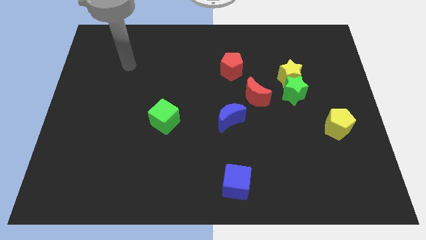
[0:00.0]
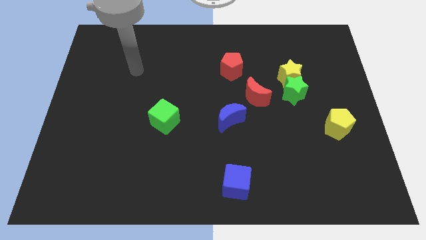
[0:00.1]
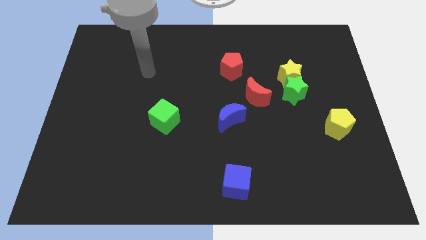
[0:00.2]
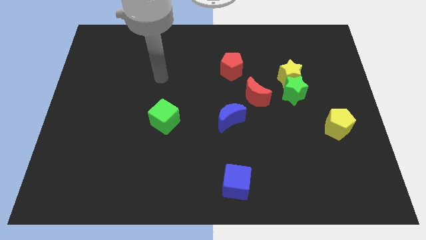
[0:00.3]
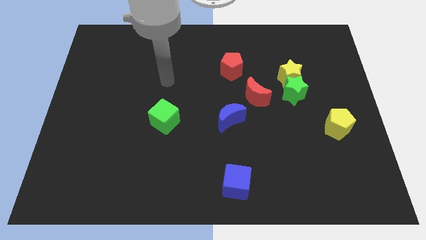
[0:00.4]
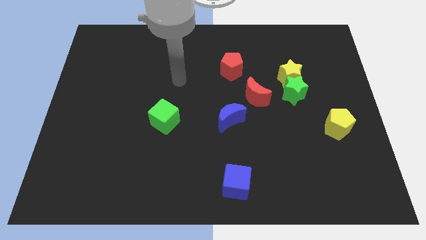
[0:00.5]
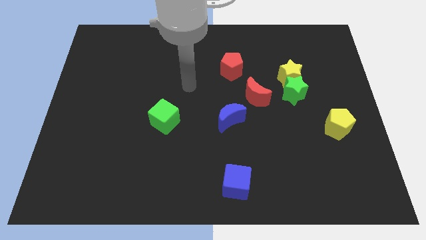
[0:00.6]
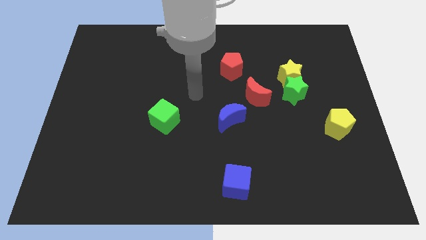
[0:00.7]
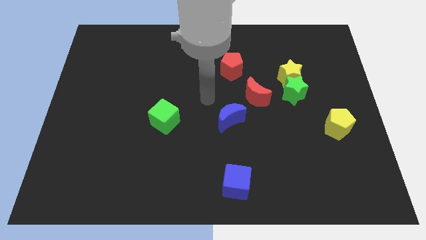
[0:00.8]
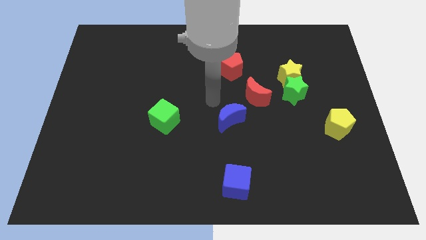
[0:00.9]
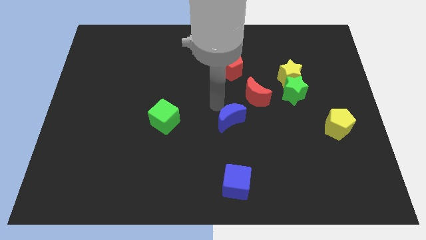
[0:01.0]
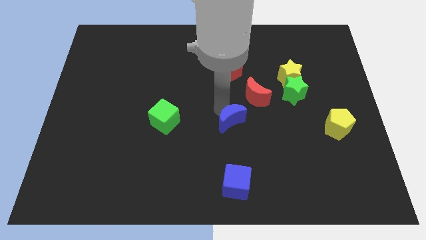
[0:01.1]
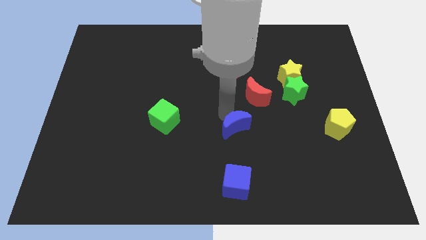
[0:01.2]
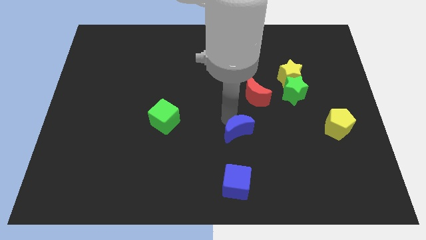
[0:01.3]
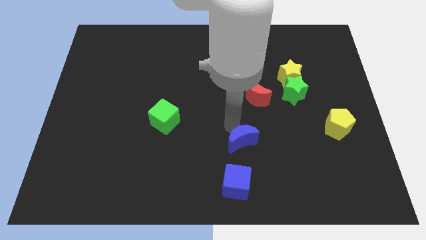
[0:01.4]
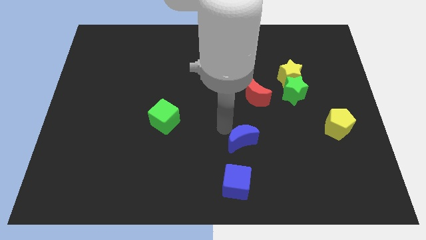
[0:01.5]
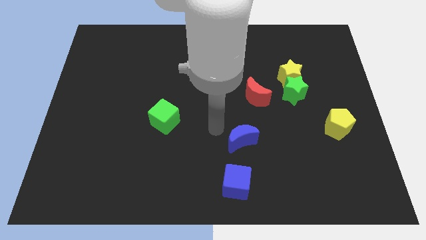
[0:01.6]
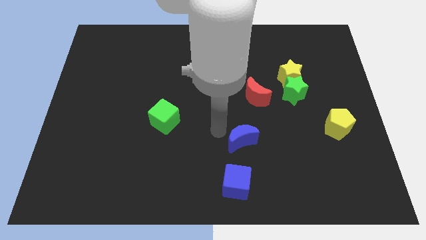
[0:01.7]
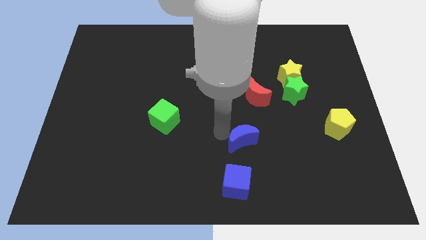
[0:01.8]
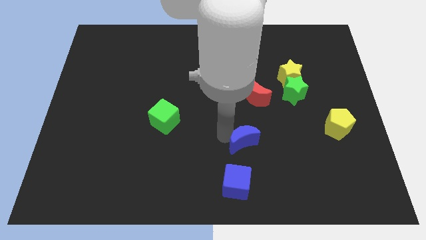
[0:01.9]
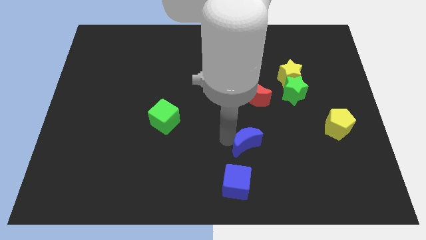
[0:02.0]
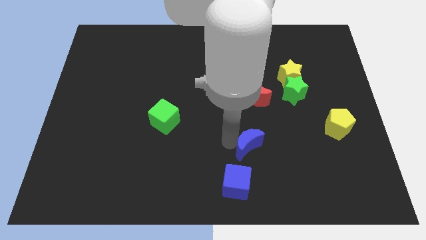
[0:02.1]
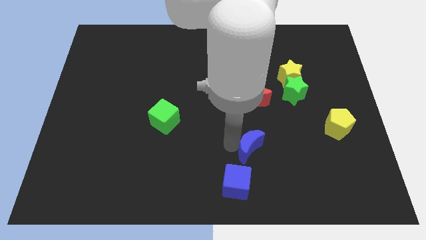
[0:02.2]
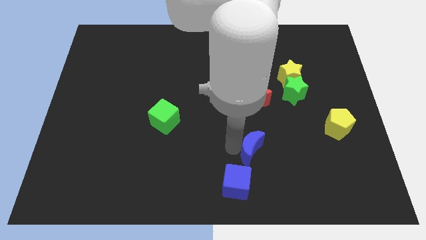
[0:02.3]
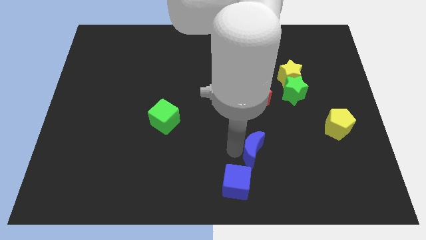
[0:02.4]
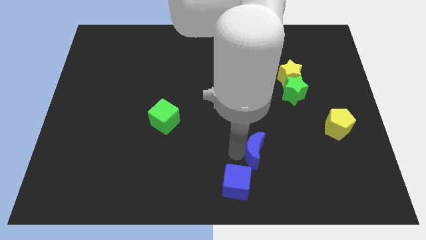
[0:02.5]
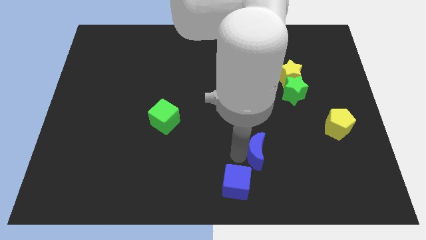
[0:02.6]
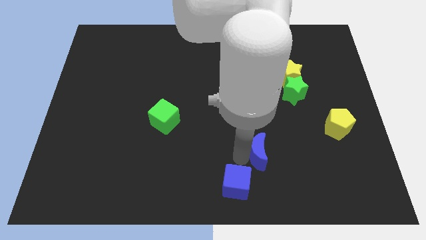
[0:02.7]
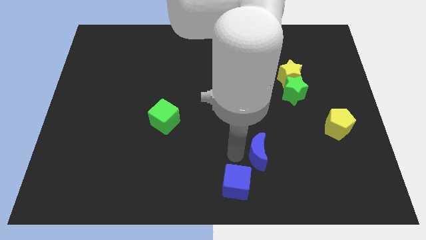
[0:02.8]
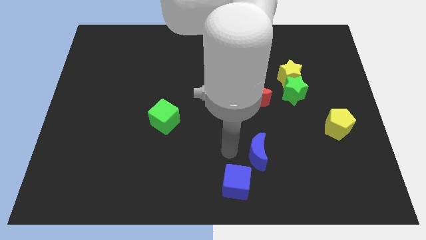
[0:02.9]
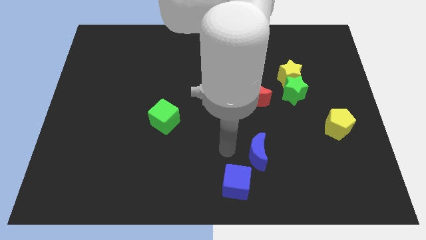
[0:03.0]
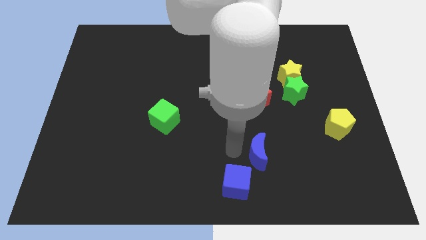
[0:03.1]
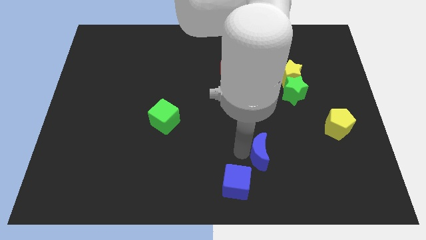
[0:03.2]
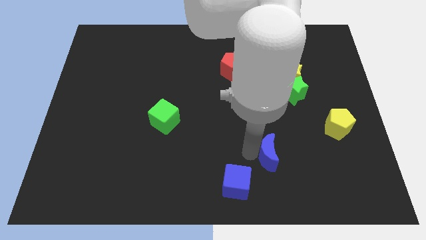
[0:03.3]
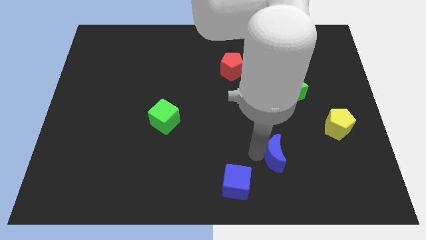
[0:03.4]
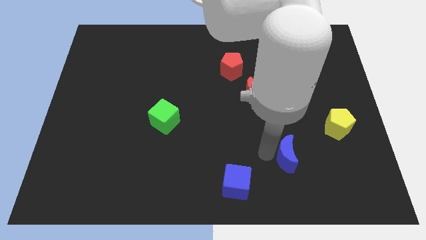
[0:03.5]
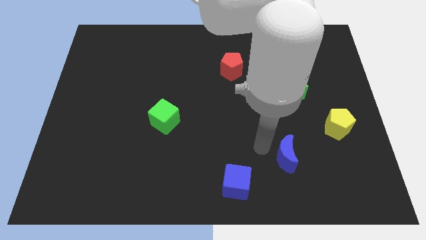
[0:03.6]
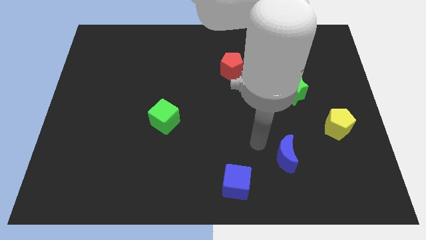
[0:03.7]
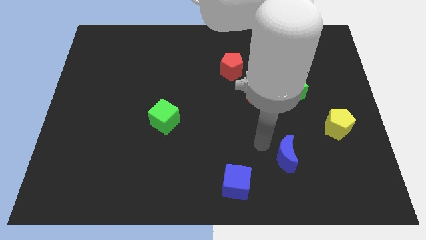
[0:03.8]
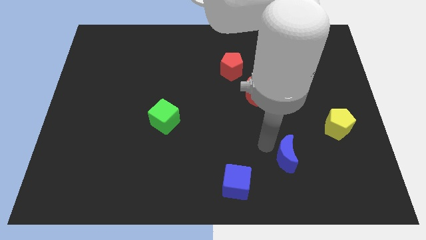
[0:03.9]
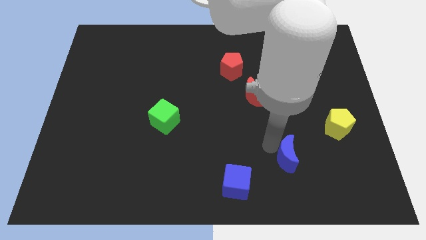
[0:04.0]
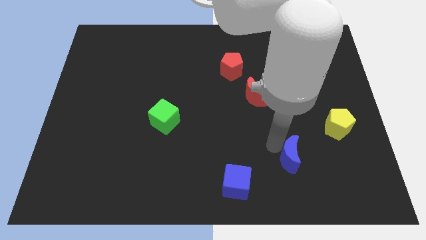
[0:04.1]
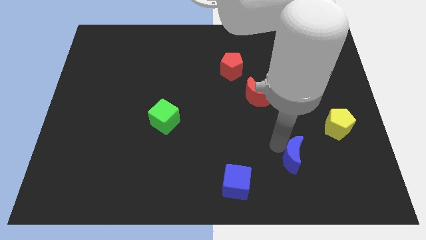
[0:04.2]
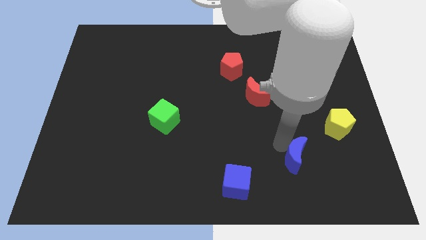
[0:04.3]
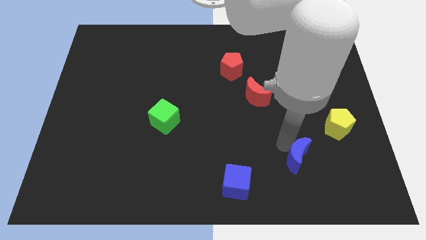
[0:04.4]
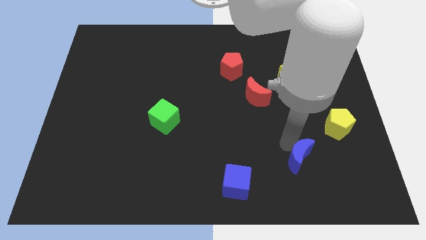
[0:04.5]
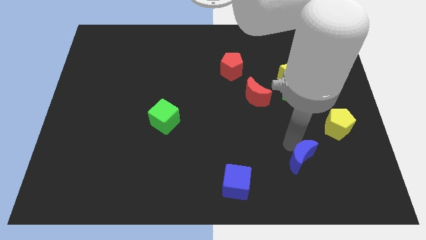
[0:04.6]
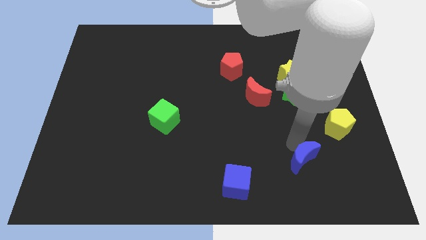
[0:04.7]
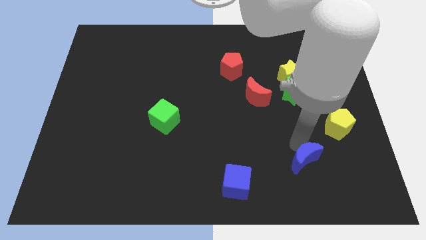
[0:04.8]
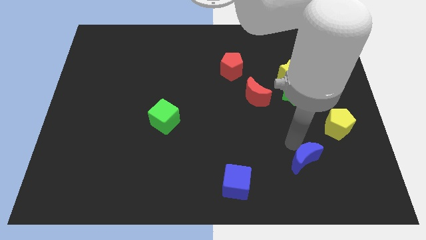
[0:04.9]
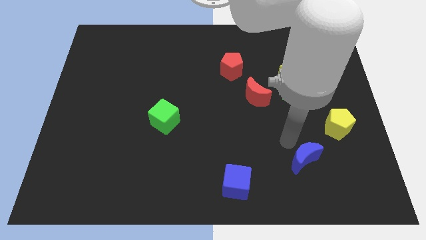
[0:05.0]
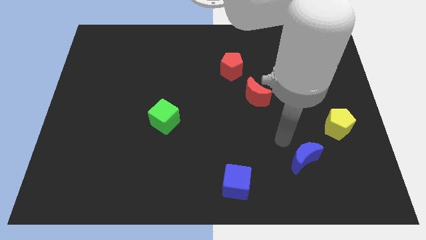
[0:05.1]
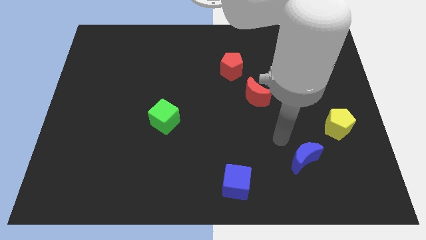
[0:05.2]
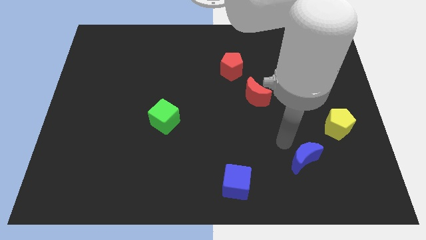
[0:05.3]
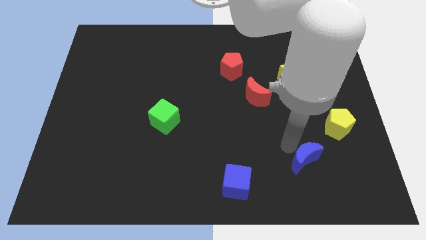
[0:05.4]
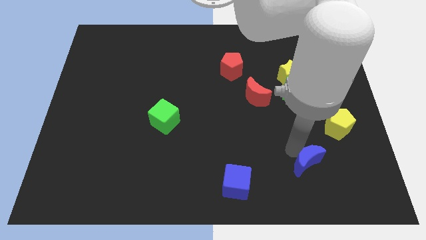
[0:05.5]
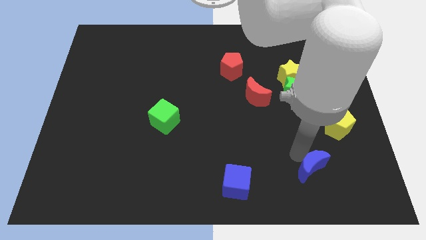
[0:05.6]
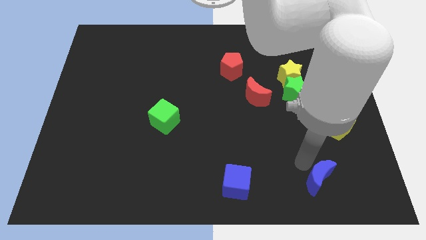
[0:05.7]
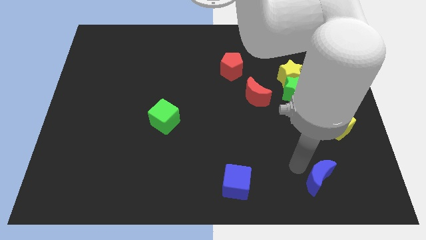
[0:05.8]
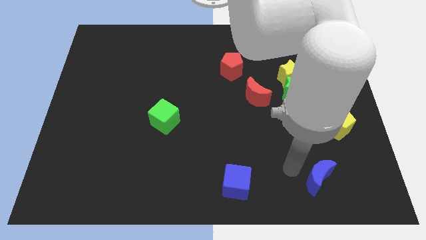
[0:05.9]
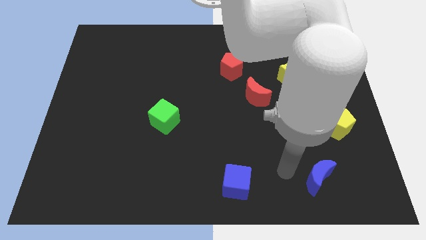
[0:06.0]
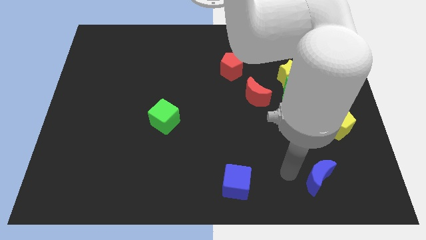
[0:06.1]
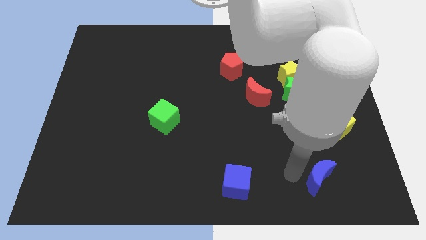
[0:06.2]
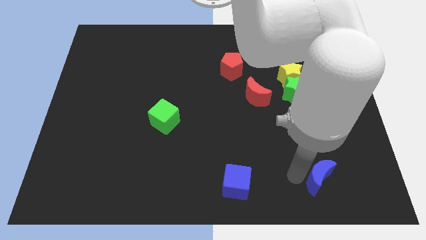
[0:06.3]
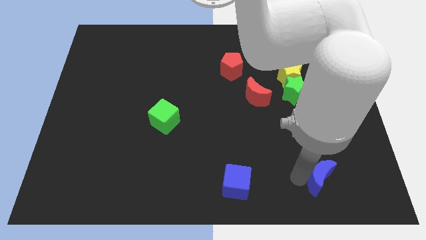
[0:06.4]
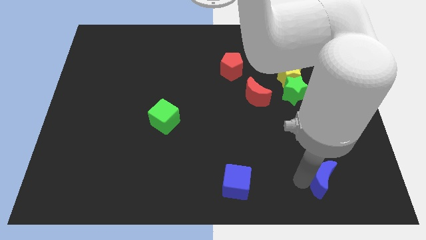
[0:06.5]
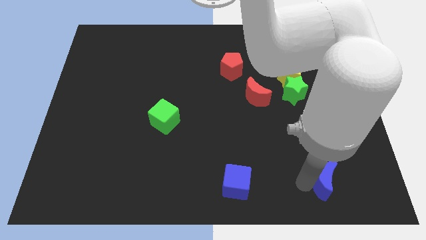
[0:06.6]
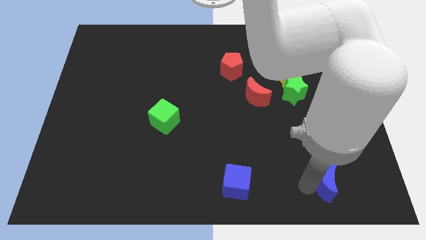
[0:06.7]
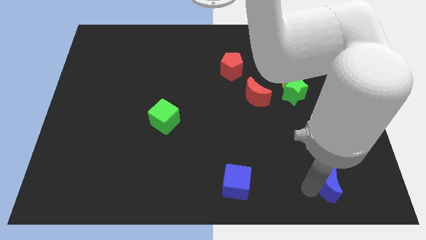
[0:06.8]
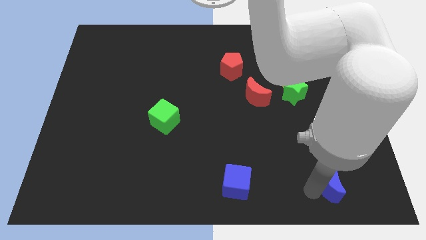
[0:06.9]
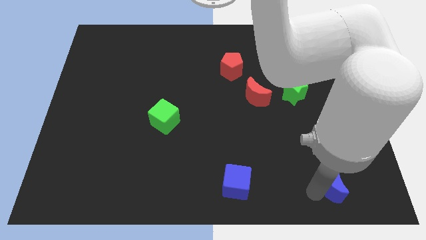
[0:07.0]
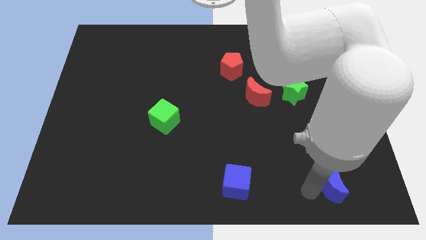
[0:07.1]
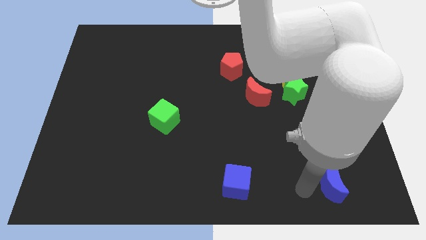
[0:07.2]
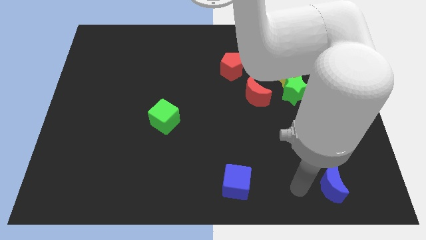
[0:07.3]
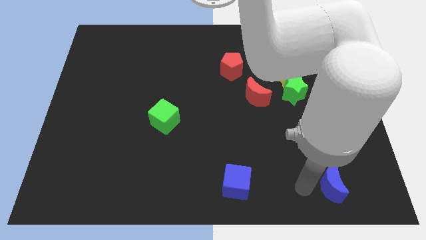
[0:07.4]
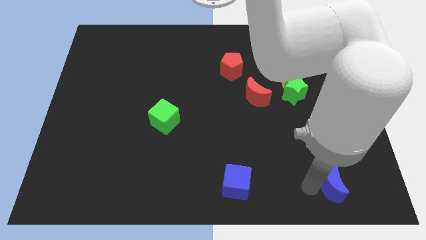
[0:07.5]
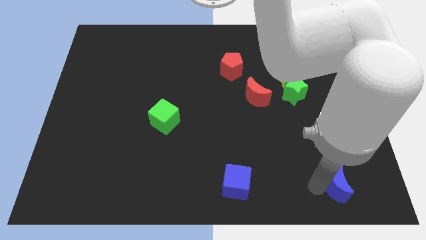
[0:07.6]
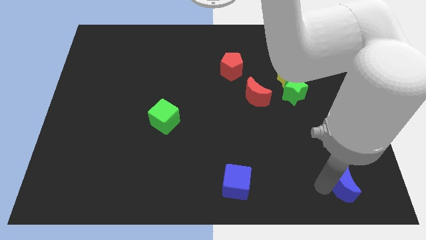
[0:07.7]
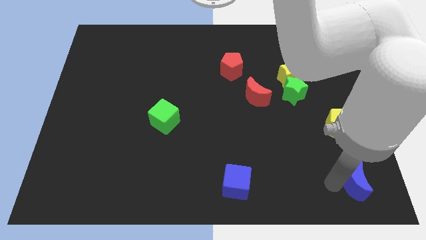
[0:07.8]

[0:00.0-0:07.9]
put the blue moon to the bottom right corner
